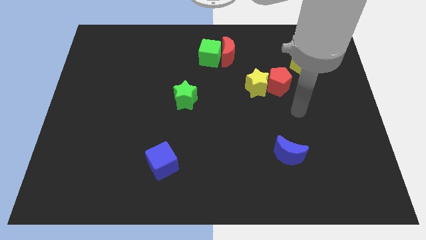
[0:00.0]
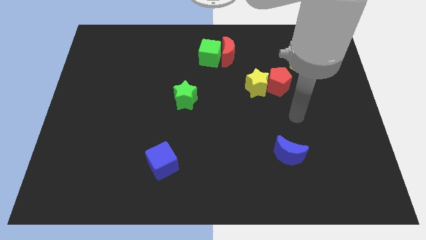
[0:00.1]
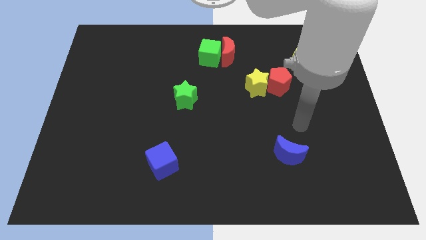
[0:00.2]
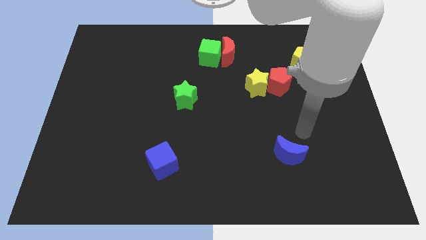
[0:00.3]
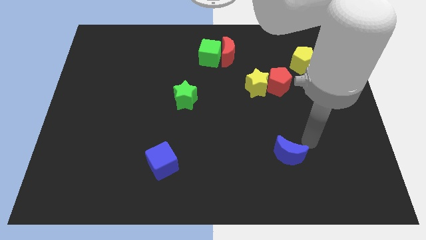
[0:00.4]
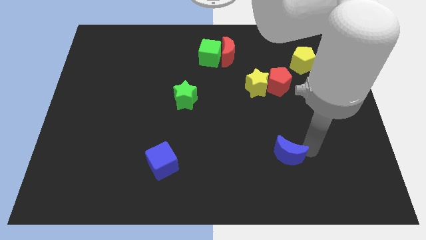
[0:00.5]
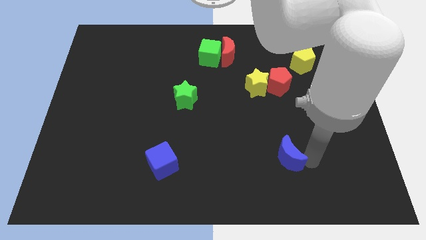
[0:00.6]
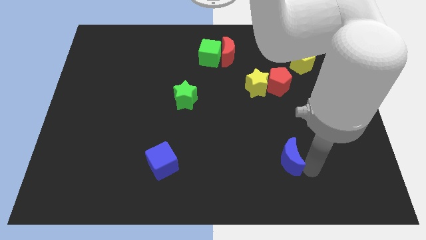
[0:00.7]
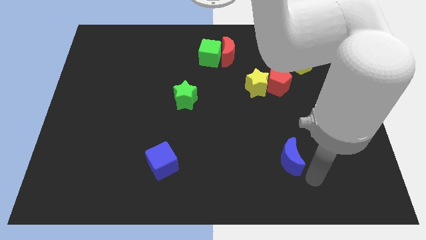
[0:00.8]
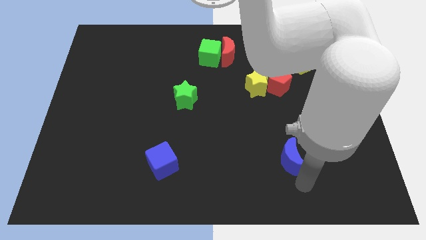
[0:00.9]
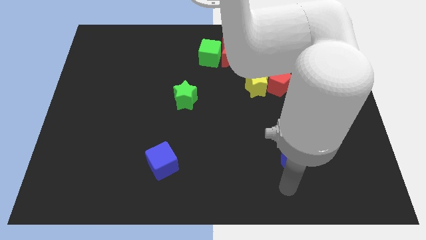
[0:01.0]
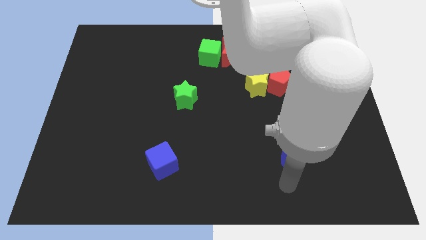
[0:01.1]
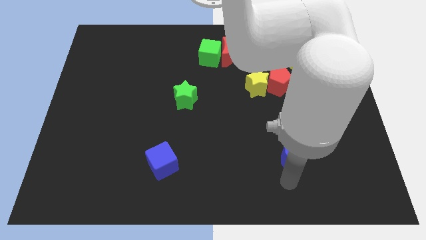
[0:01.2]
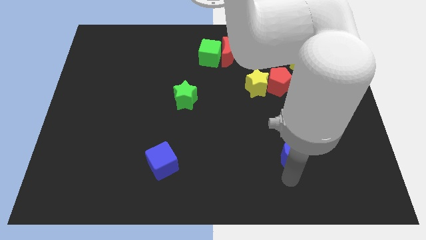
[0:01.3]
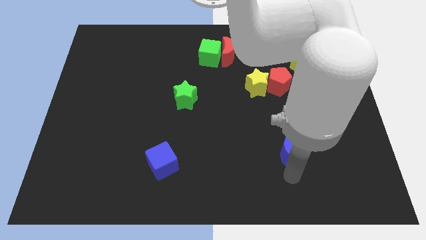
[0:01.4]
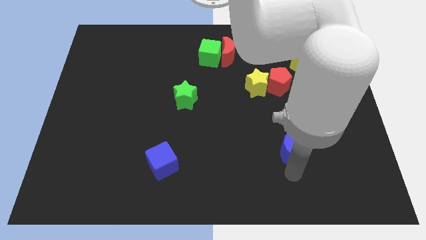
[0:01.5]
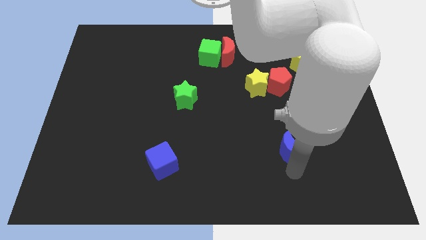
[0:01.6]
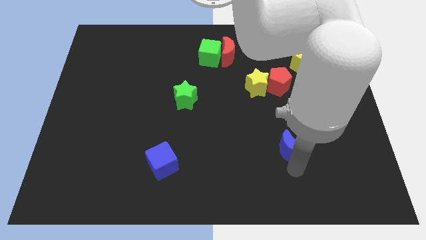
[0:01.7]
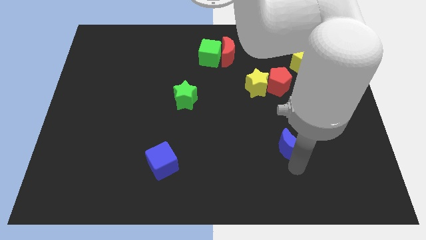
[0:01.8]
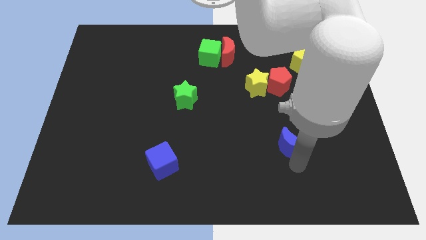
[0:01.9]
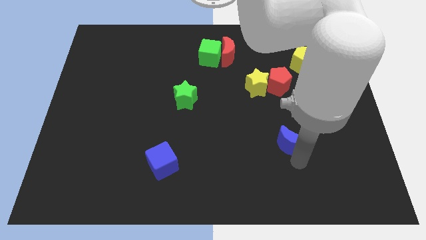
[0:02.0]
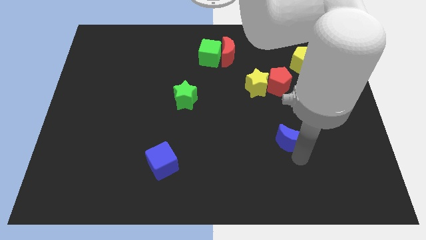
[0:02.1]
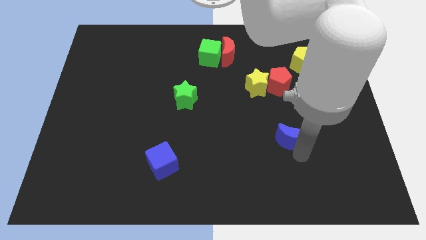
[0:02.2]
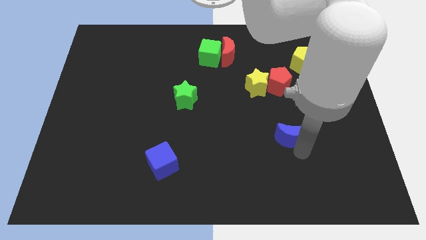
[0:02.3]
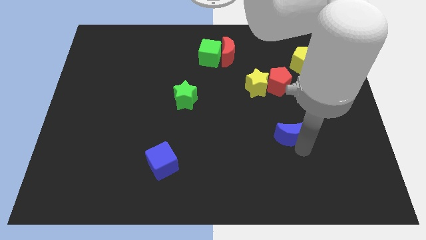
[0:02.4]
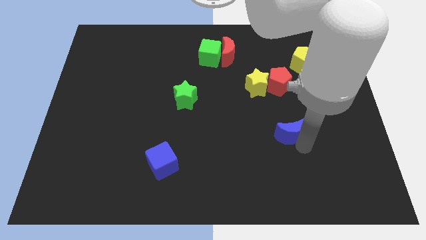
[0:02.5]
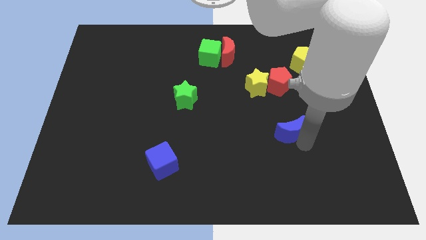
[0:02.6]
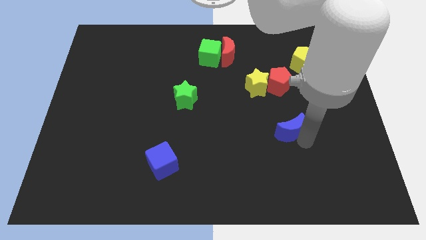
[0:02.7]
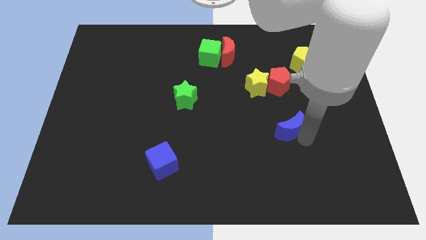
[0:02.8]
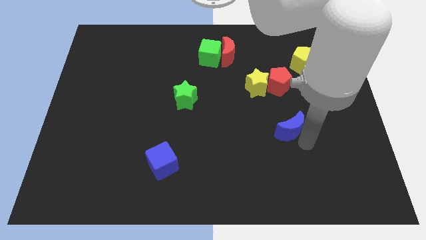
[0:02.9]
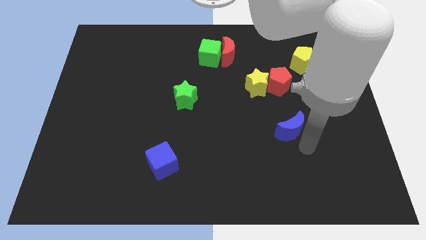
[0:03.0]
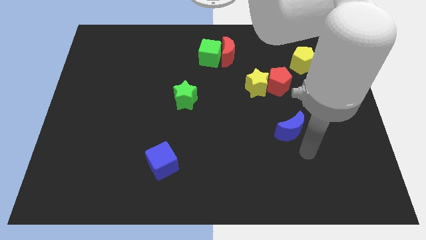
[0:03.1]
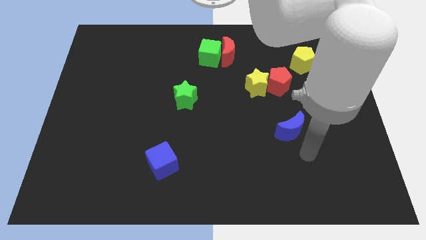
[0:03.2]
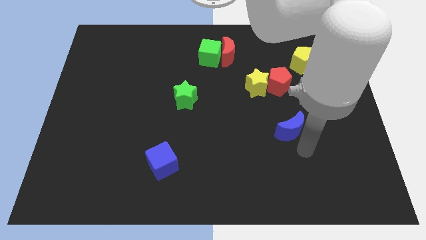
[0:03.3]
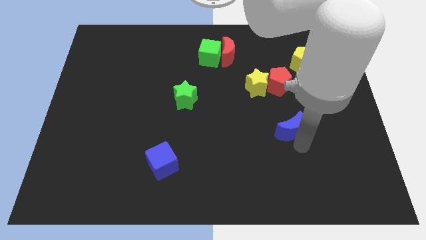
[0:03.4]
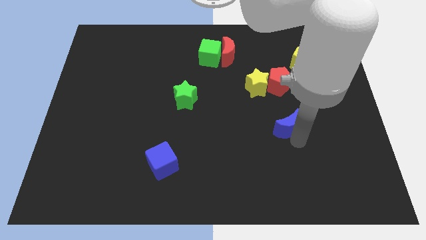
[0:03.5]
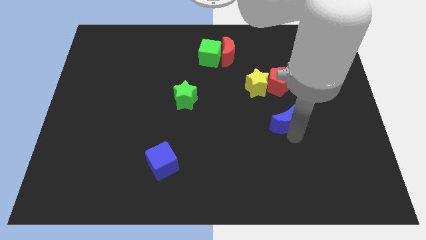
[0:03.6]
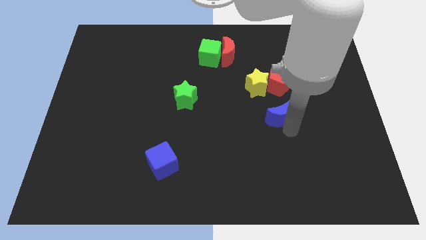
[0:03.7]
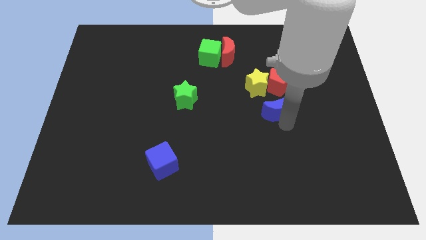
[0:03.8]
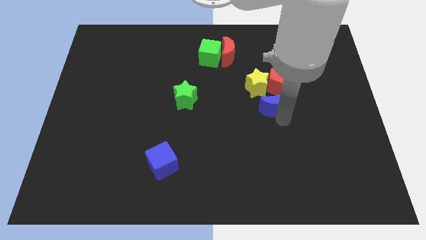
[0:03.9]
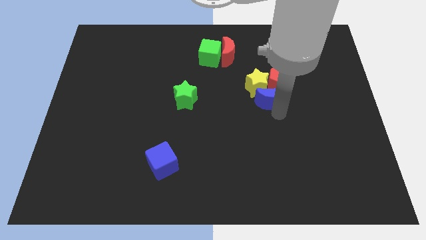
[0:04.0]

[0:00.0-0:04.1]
push the blue moon to the yellow star

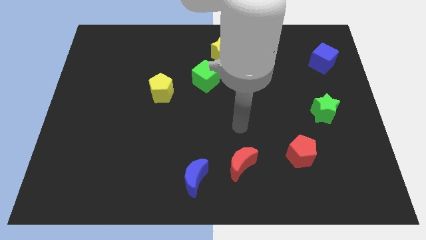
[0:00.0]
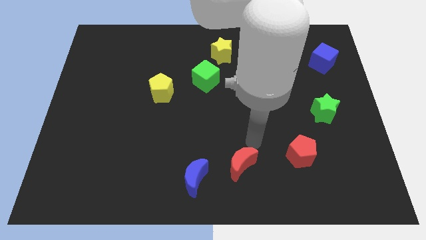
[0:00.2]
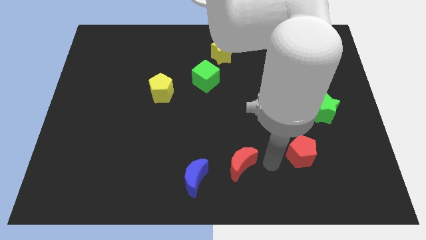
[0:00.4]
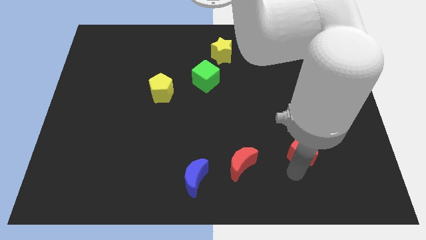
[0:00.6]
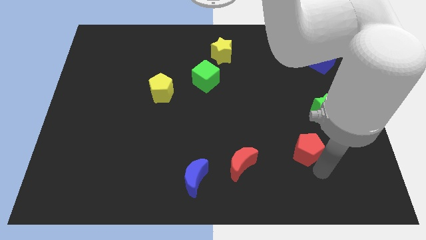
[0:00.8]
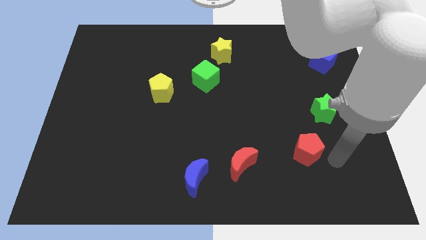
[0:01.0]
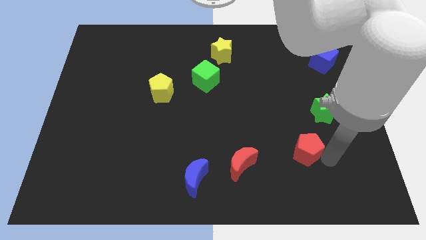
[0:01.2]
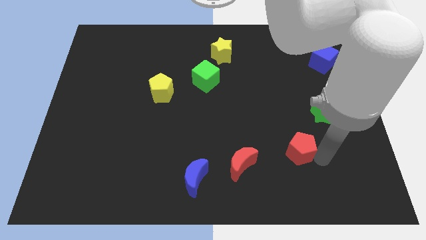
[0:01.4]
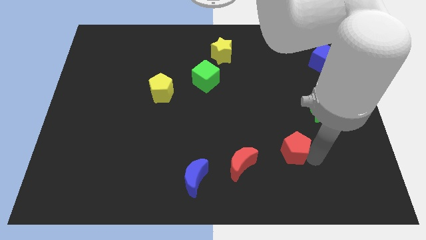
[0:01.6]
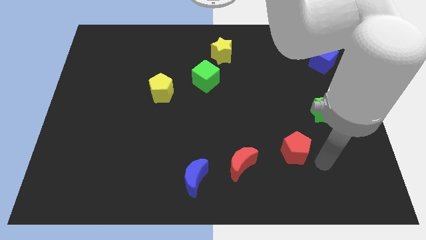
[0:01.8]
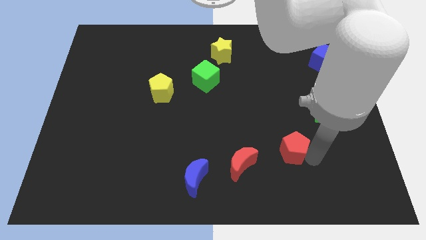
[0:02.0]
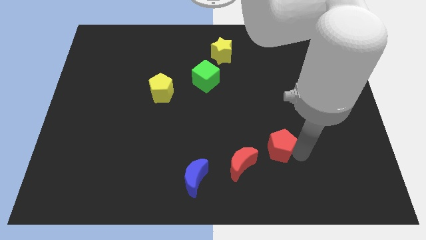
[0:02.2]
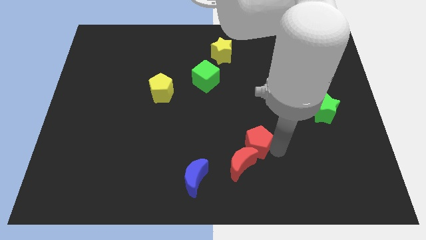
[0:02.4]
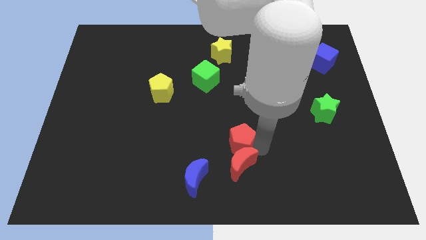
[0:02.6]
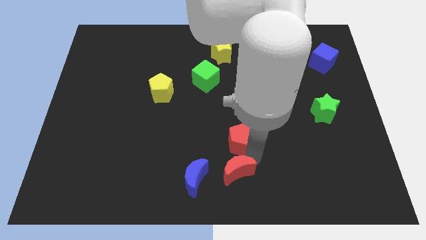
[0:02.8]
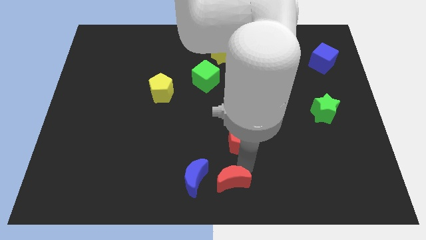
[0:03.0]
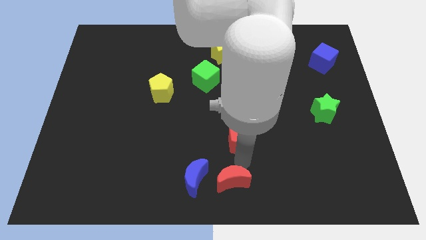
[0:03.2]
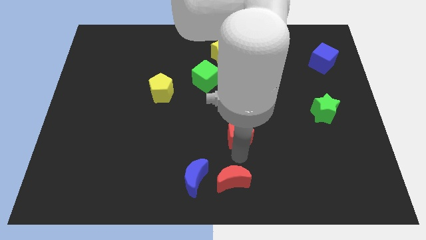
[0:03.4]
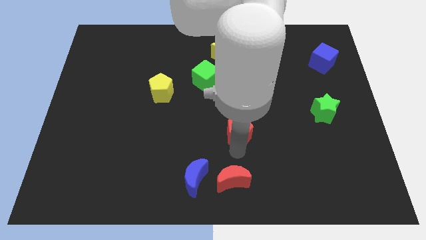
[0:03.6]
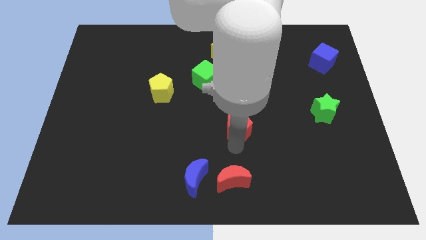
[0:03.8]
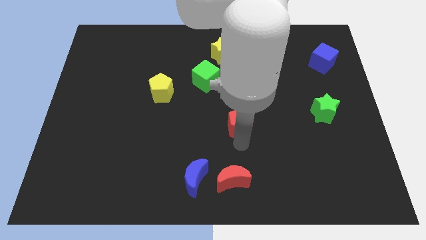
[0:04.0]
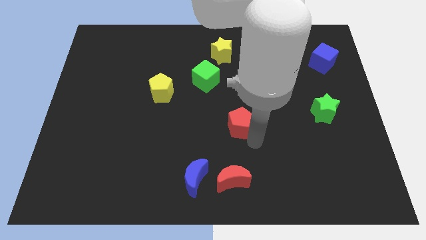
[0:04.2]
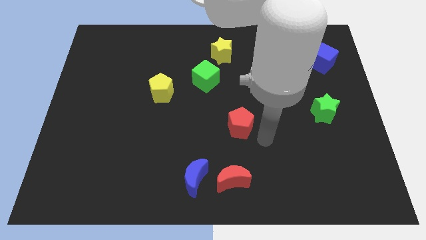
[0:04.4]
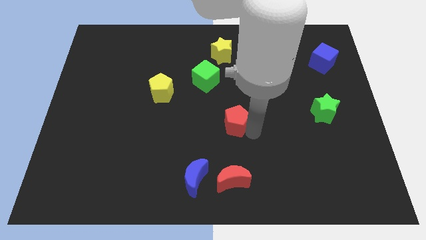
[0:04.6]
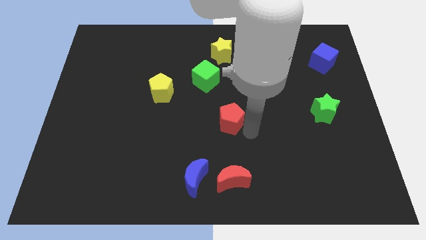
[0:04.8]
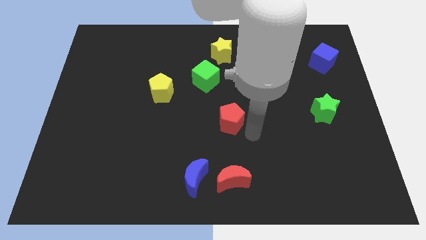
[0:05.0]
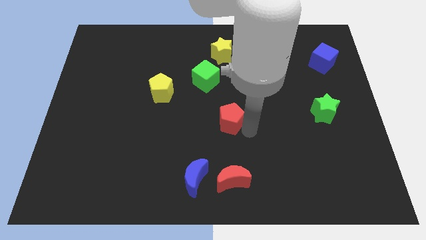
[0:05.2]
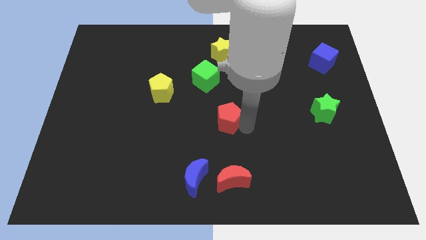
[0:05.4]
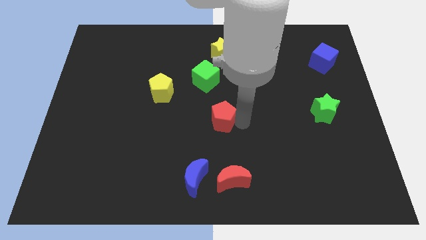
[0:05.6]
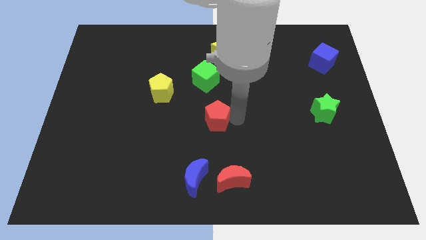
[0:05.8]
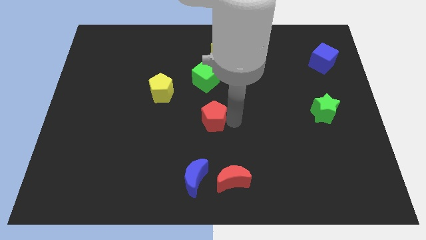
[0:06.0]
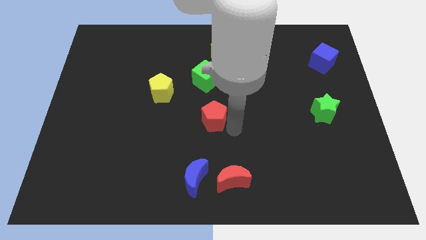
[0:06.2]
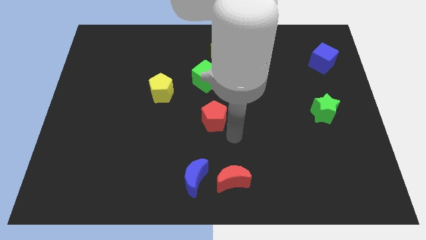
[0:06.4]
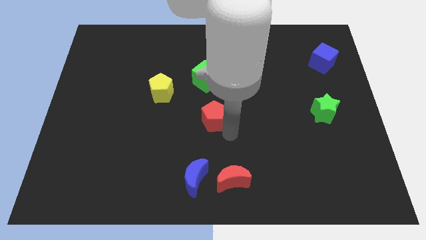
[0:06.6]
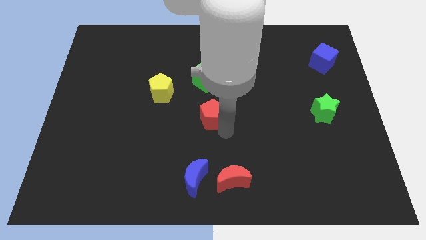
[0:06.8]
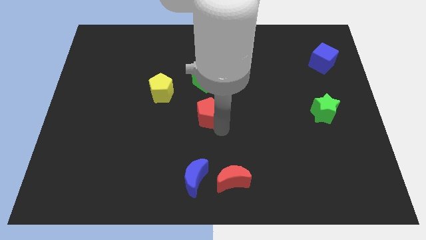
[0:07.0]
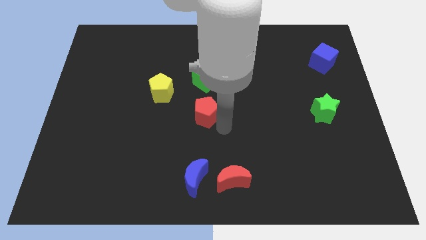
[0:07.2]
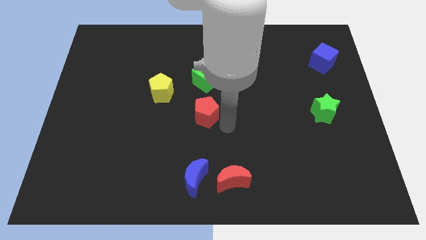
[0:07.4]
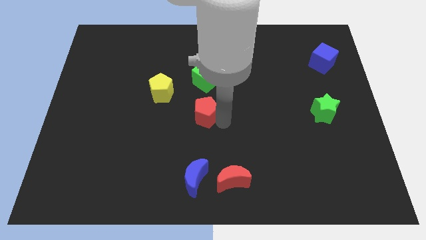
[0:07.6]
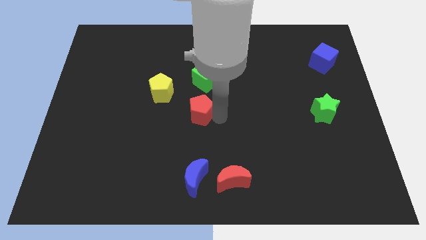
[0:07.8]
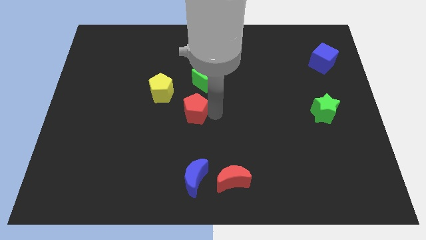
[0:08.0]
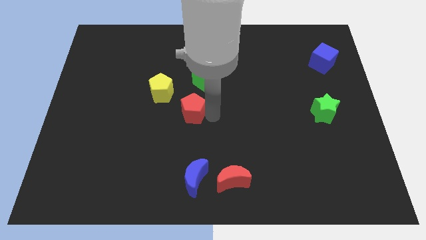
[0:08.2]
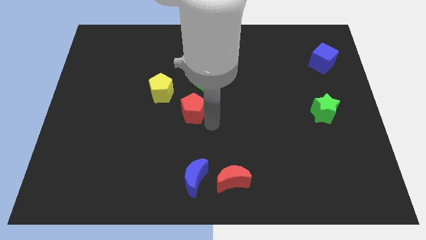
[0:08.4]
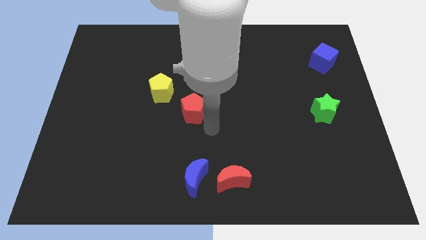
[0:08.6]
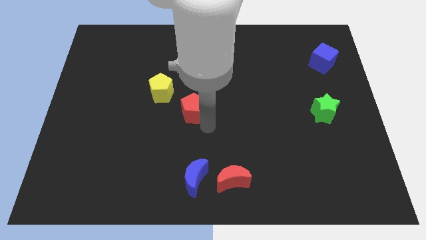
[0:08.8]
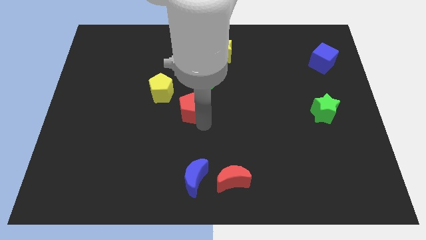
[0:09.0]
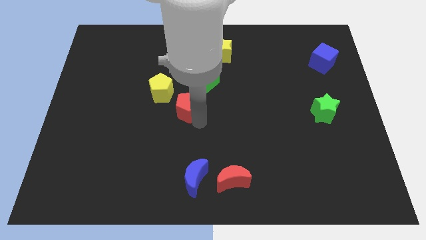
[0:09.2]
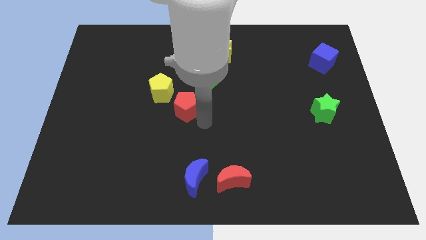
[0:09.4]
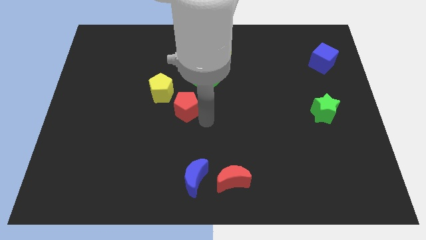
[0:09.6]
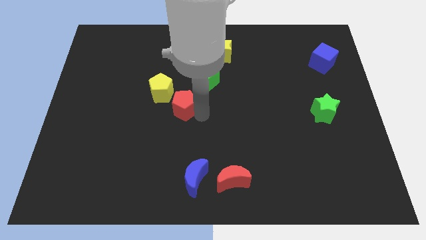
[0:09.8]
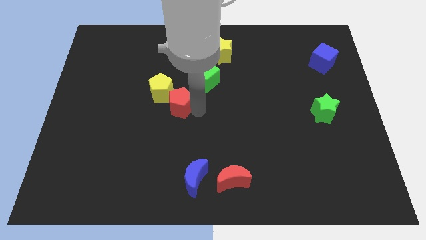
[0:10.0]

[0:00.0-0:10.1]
push the red pentagon to the yellow pentagon
